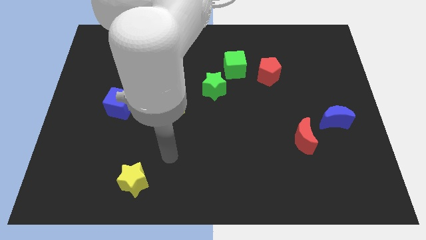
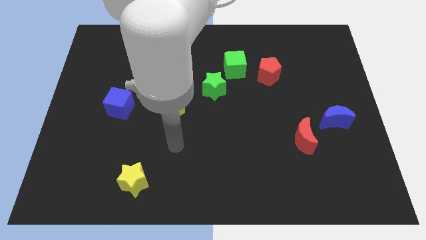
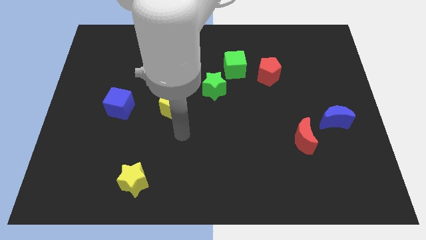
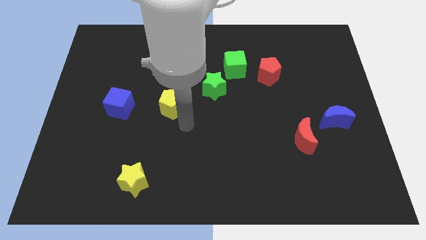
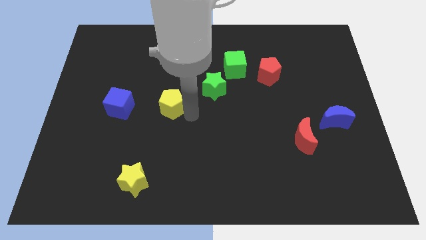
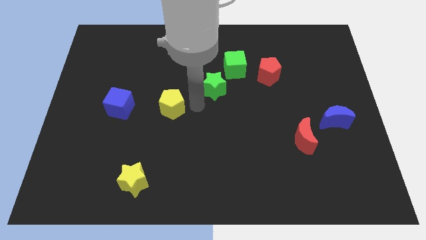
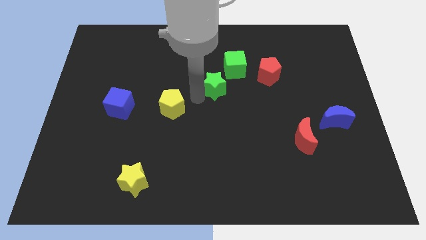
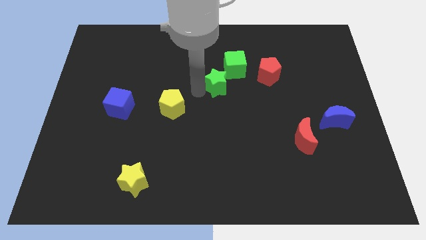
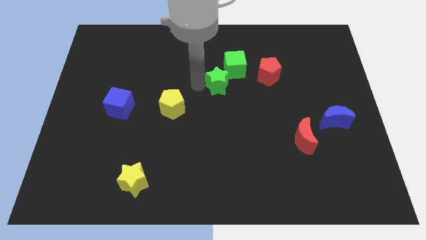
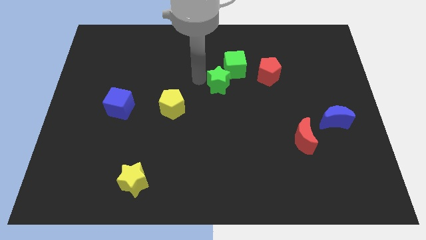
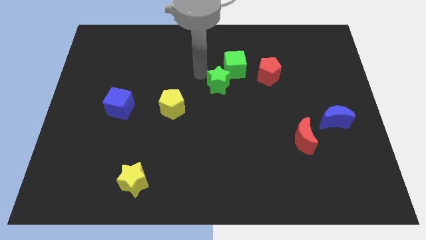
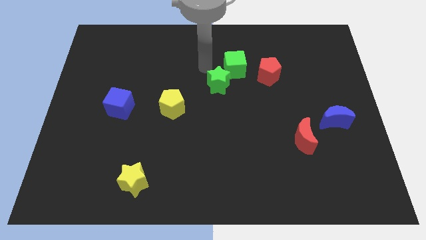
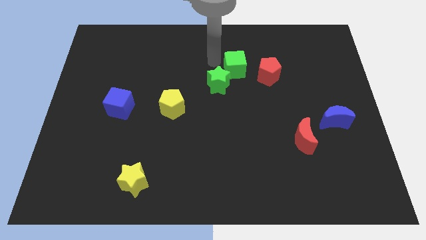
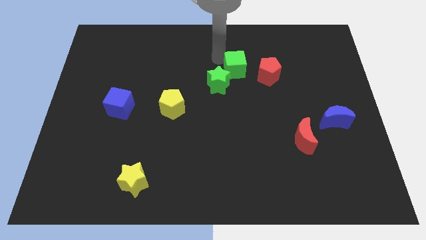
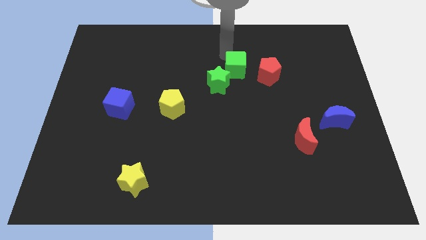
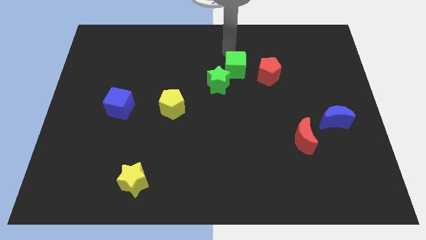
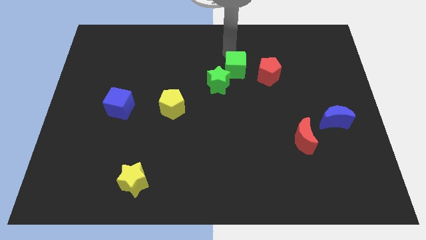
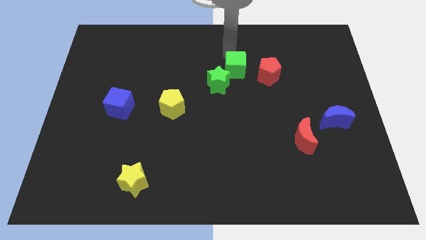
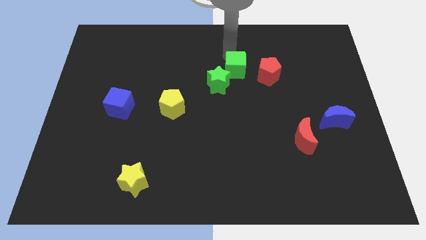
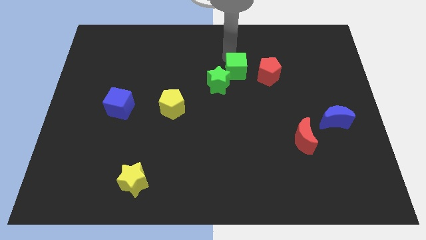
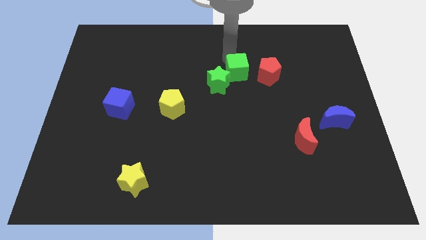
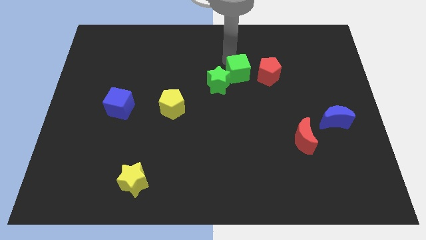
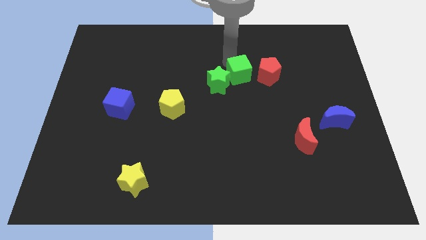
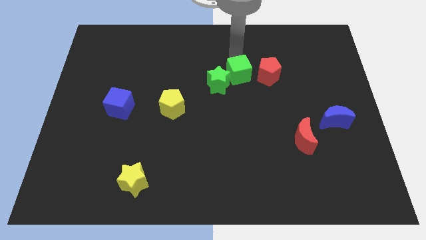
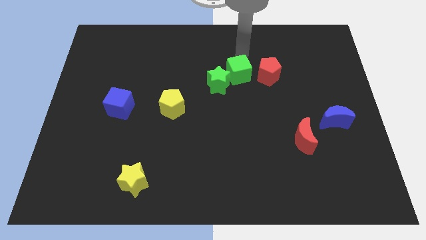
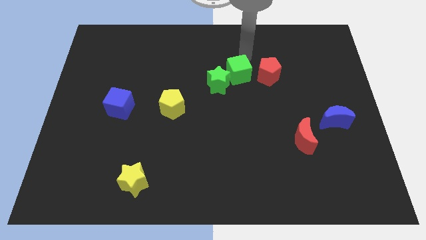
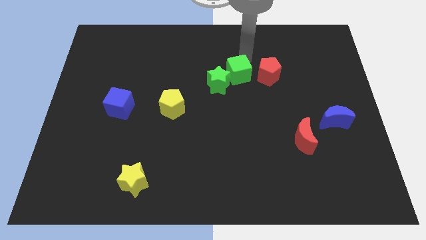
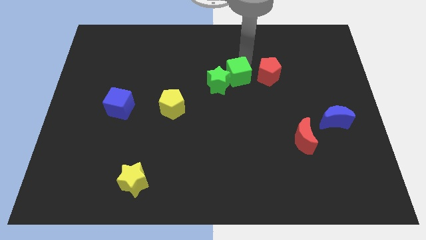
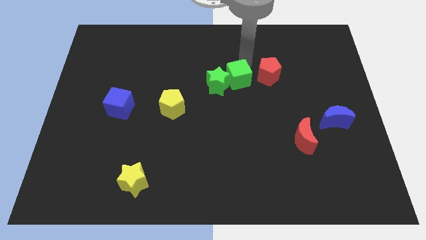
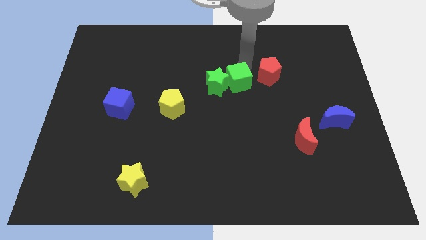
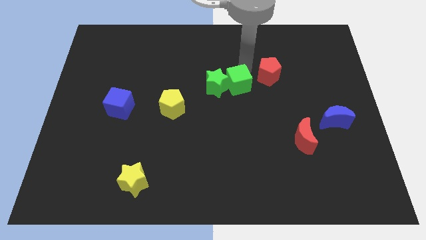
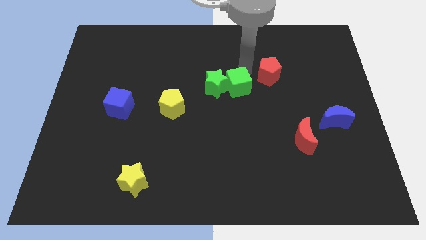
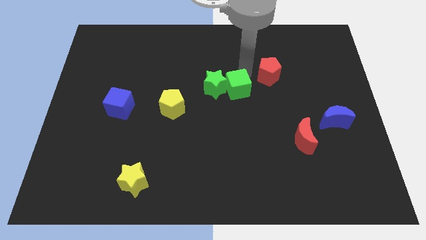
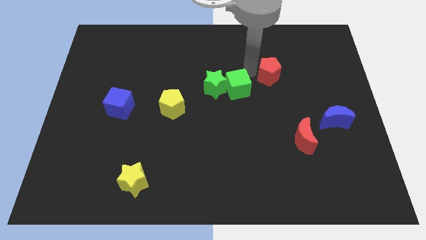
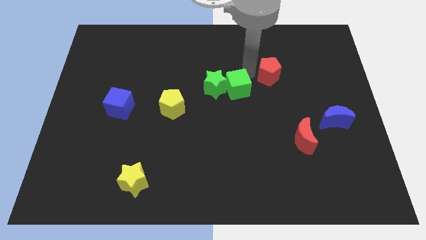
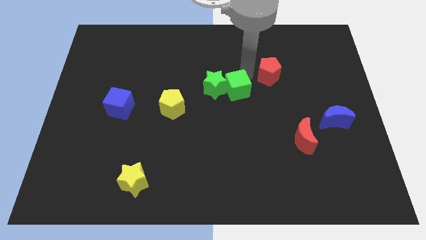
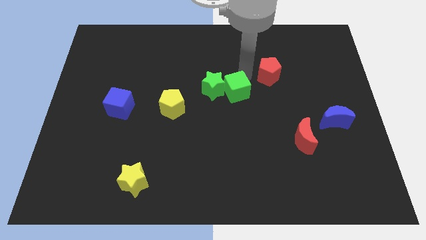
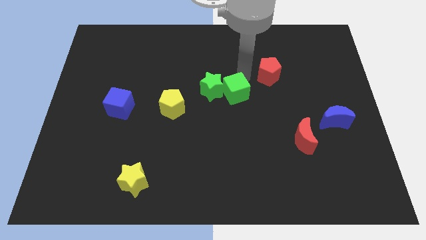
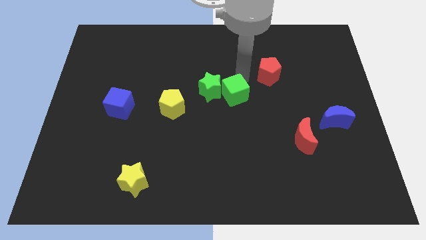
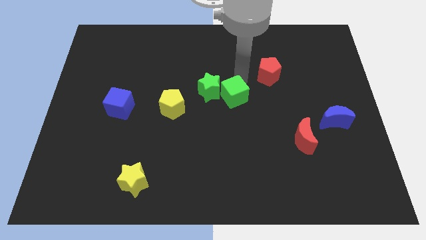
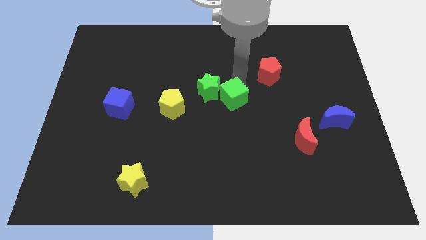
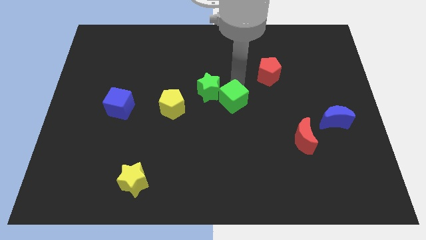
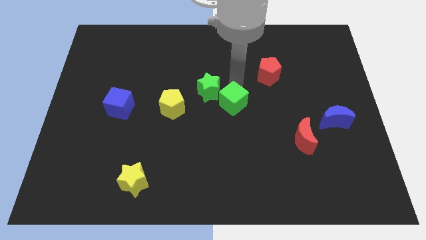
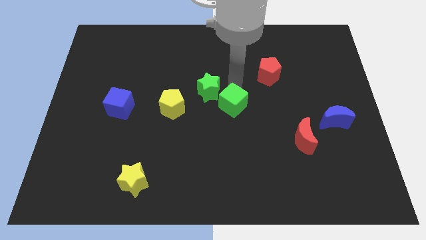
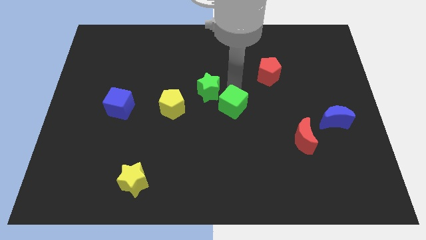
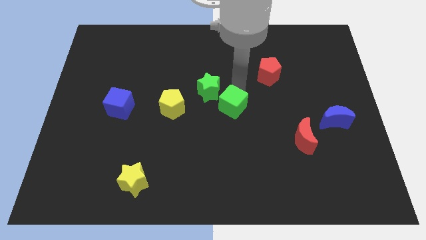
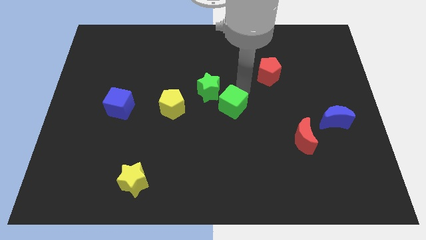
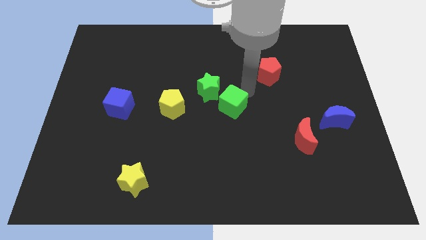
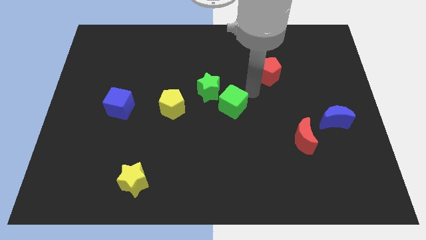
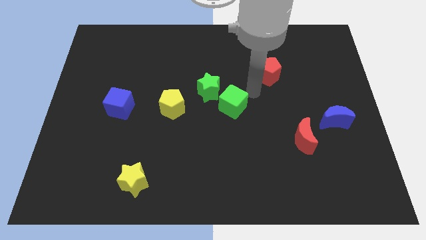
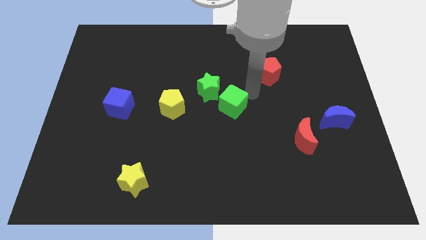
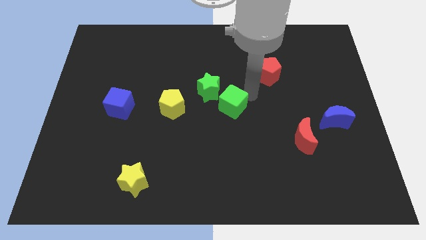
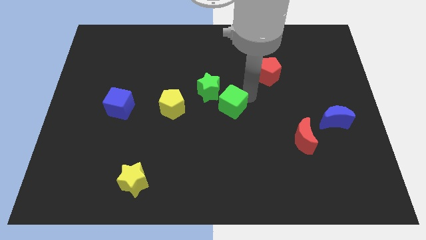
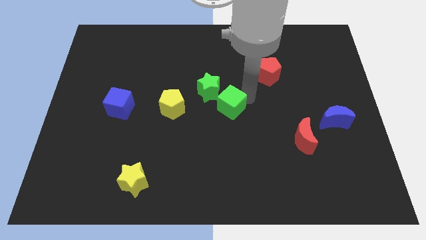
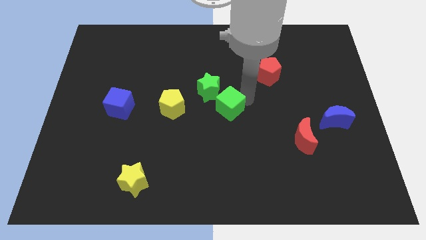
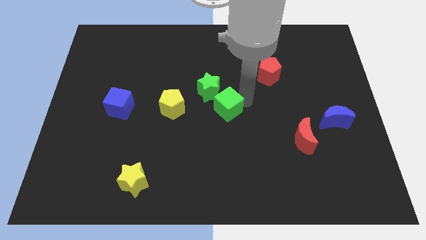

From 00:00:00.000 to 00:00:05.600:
push the green cube to the bottom side of the green star

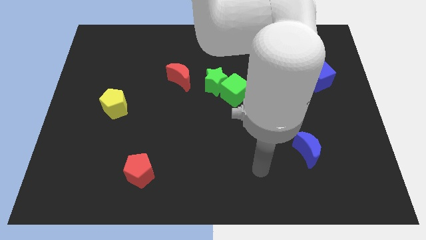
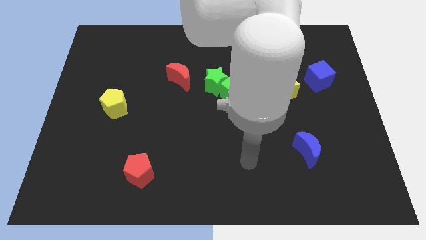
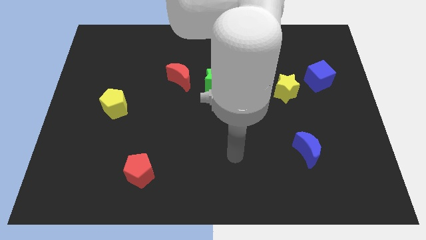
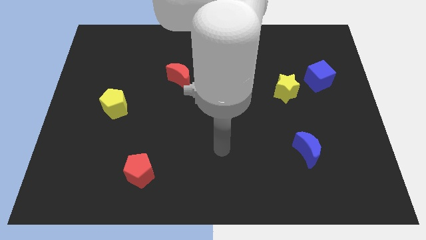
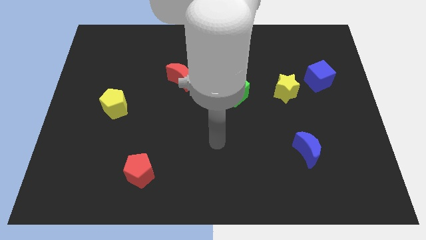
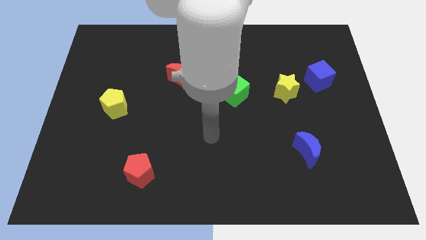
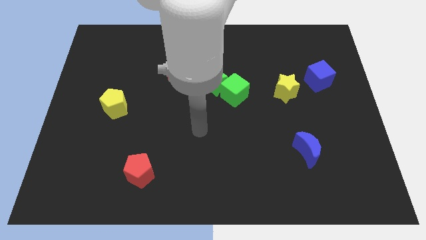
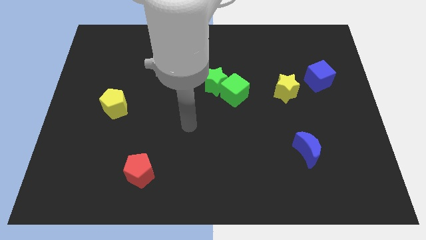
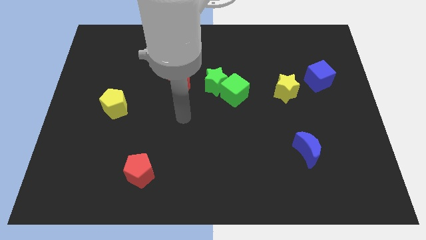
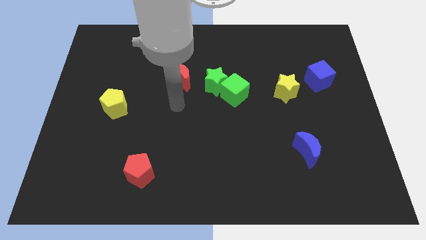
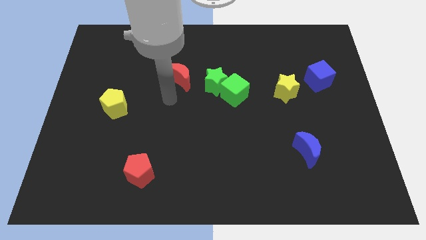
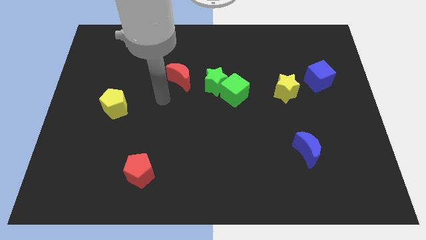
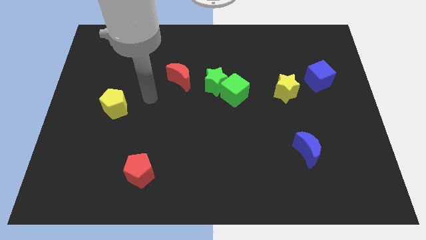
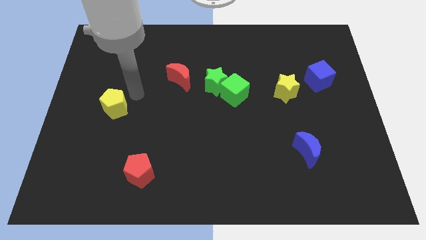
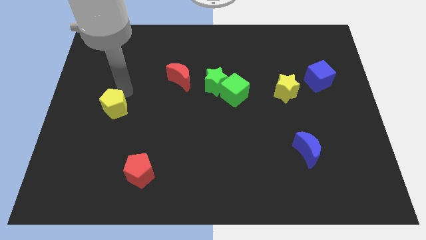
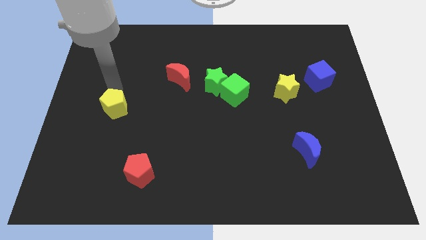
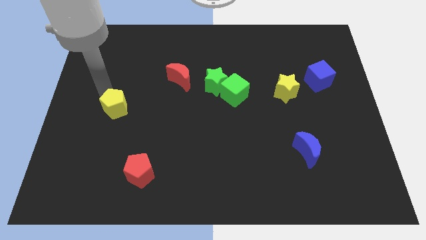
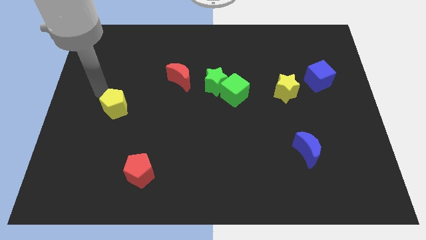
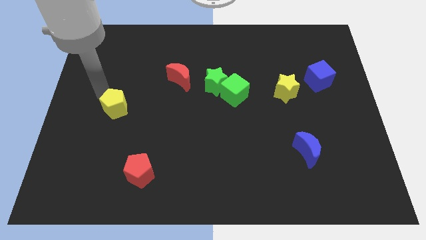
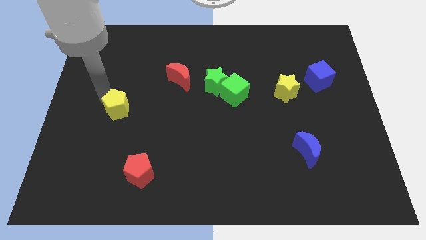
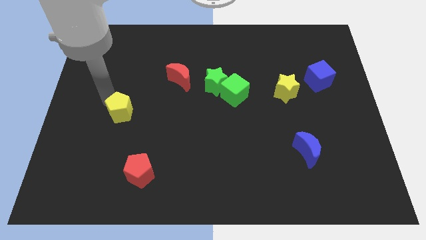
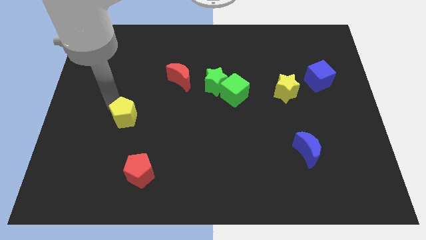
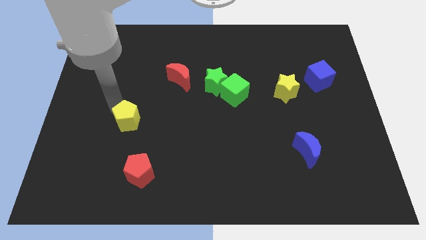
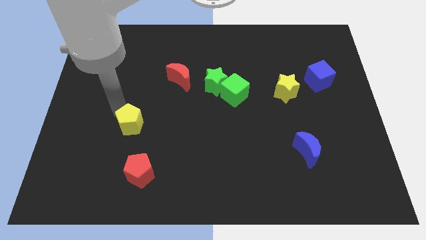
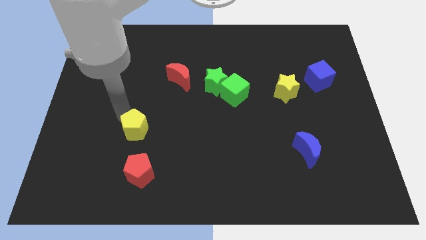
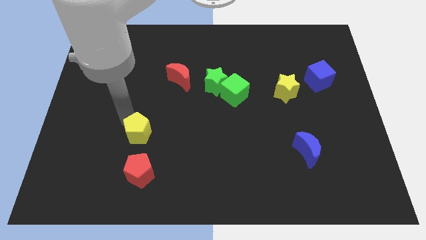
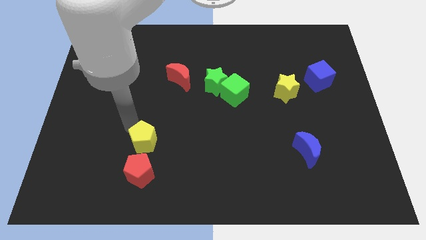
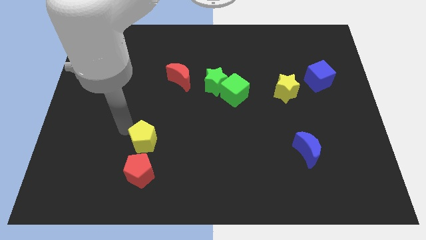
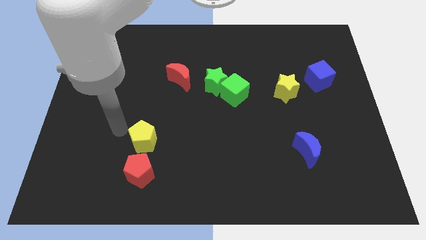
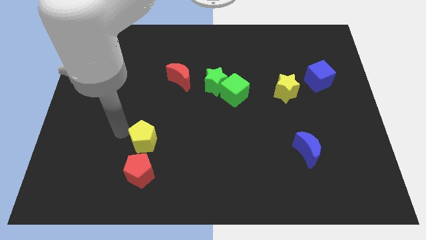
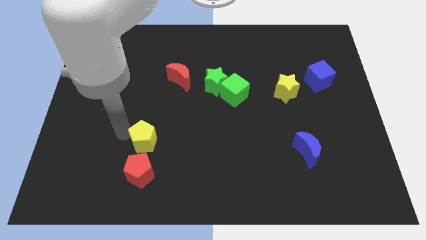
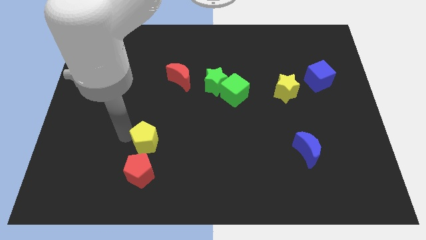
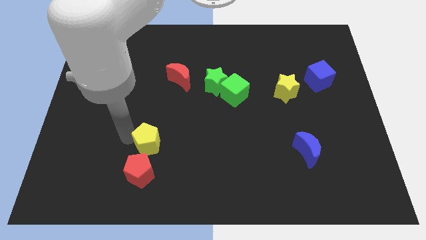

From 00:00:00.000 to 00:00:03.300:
move the yellow pentagon diagonally up and to the right of the red pentagon
